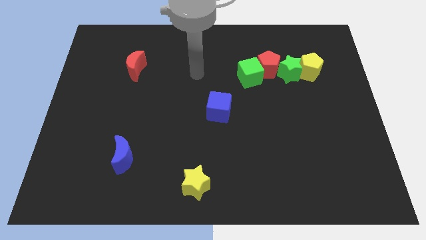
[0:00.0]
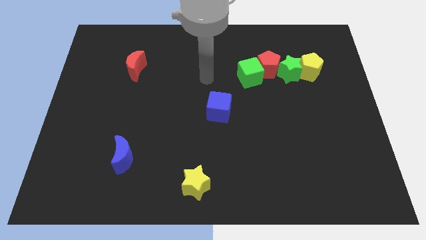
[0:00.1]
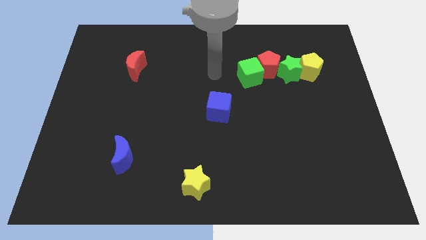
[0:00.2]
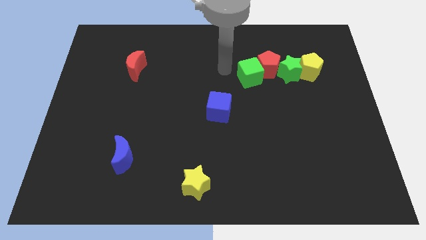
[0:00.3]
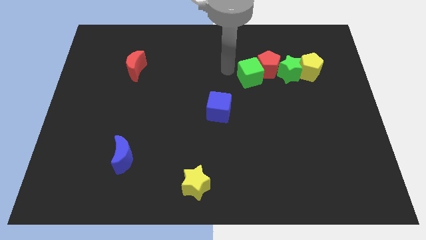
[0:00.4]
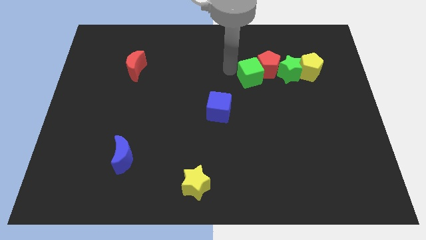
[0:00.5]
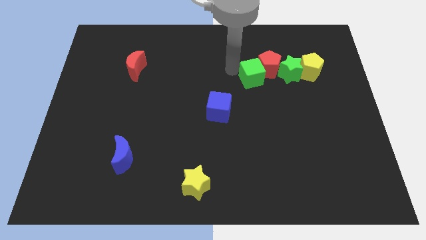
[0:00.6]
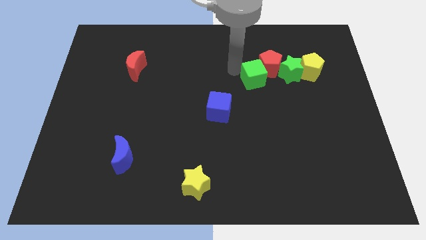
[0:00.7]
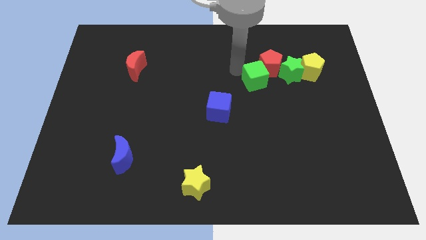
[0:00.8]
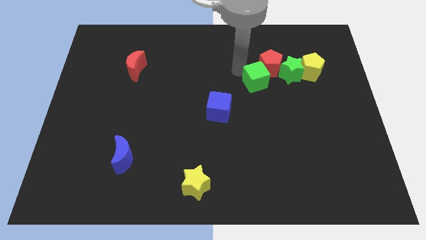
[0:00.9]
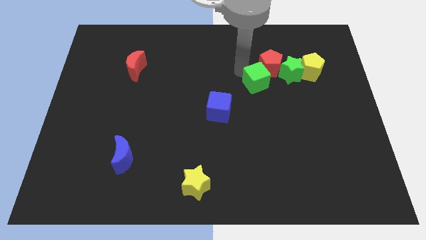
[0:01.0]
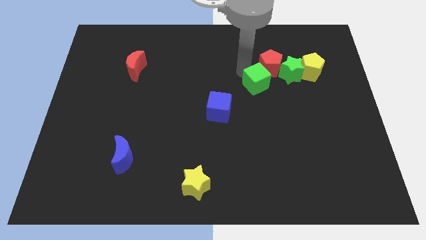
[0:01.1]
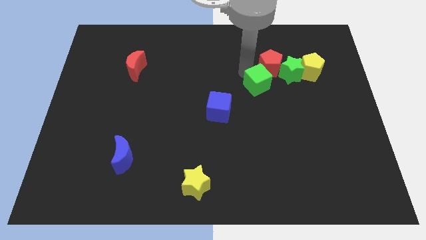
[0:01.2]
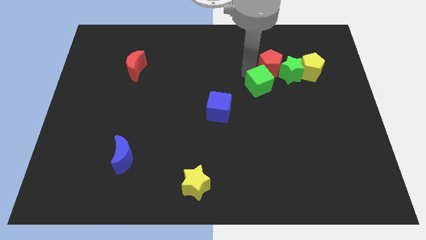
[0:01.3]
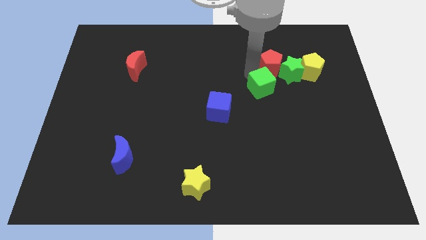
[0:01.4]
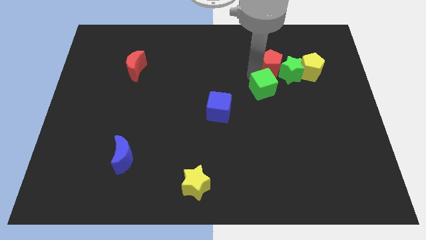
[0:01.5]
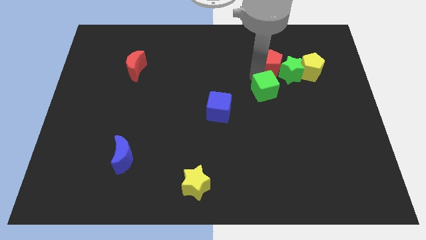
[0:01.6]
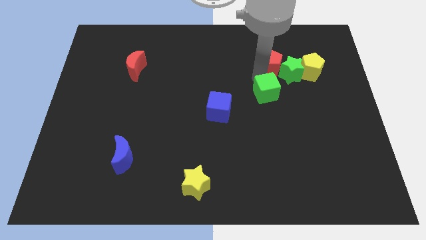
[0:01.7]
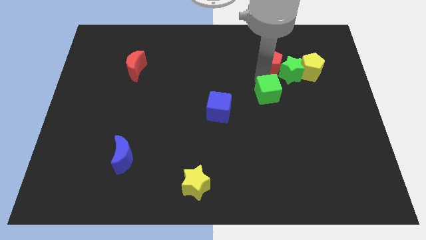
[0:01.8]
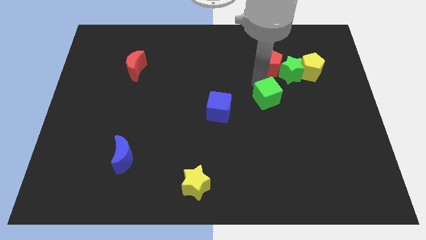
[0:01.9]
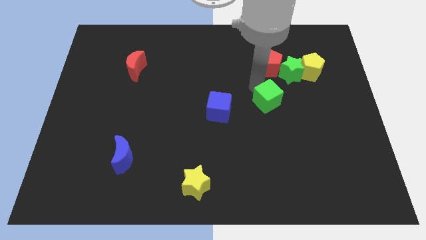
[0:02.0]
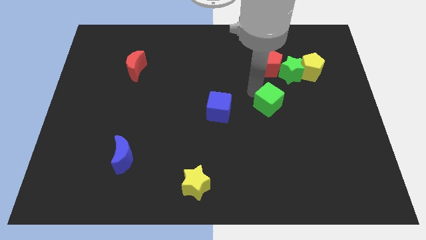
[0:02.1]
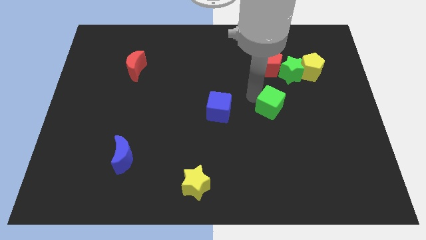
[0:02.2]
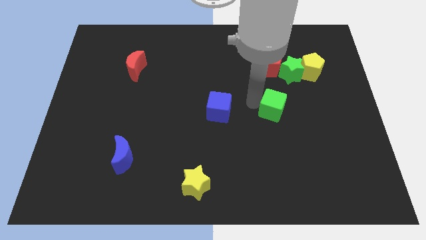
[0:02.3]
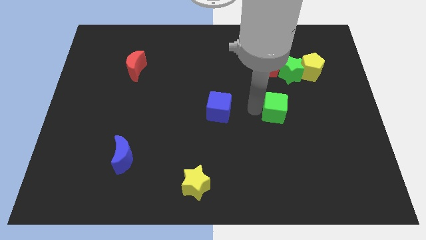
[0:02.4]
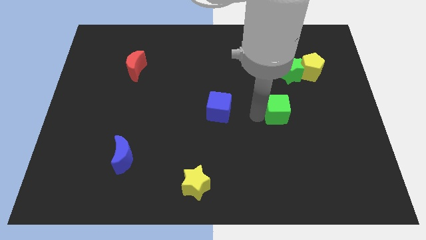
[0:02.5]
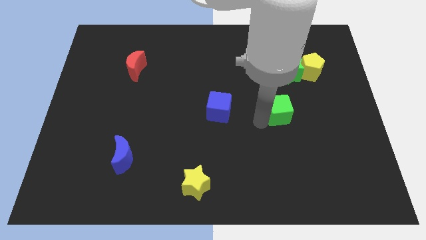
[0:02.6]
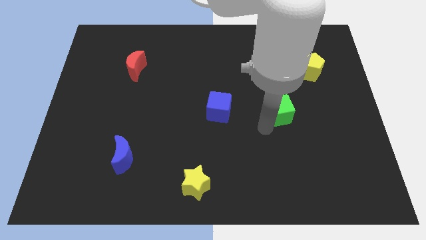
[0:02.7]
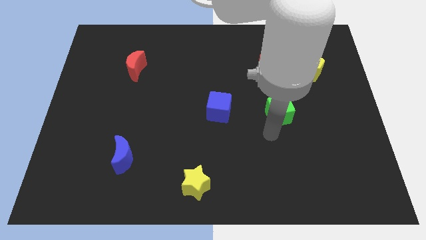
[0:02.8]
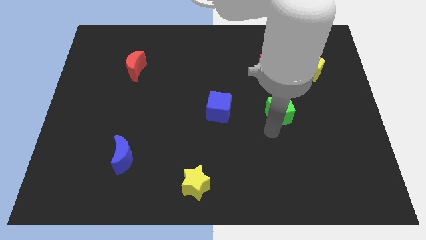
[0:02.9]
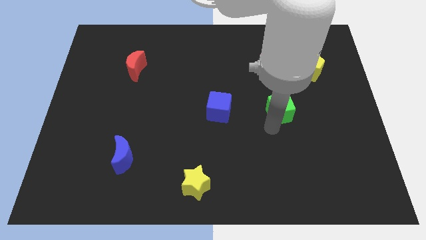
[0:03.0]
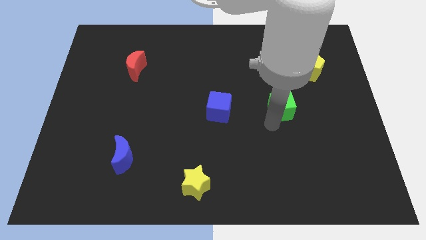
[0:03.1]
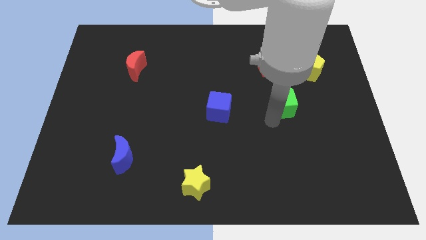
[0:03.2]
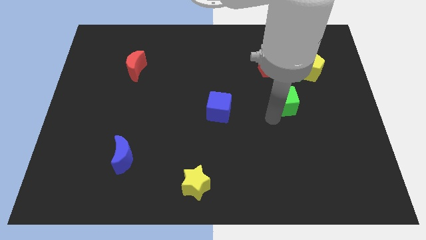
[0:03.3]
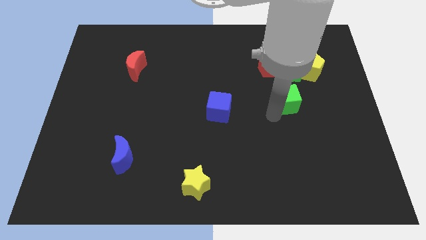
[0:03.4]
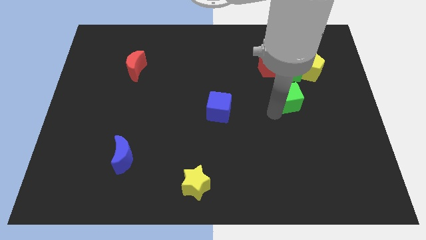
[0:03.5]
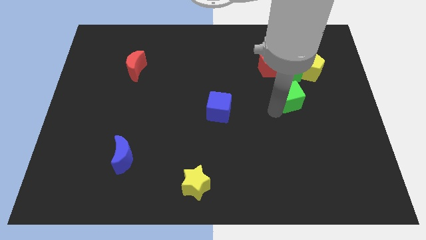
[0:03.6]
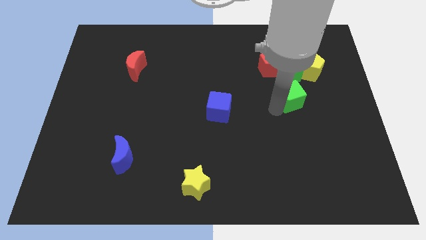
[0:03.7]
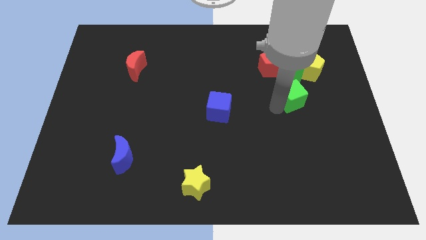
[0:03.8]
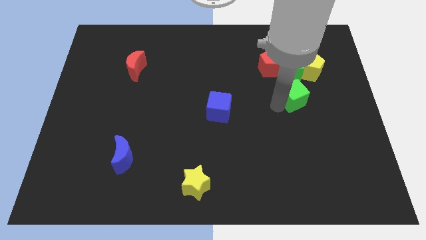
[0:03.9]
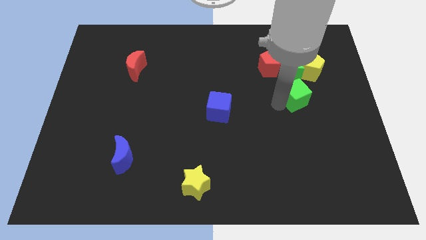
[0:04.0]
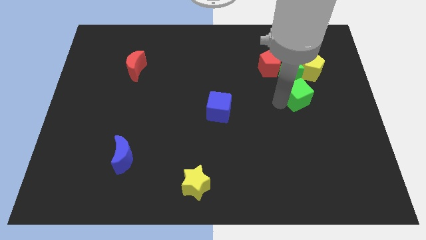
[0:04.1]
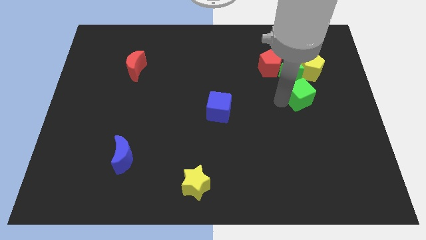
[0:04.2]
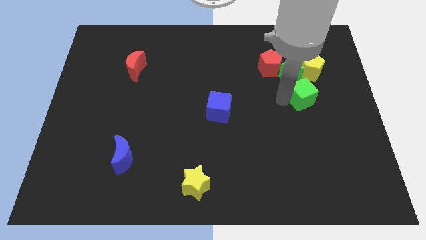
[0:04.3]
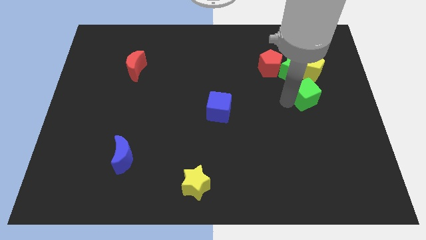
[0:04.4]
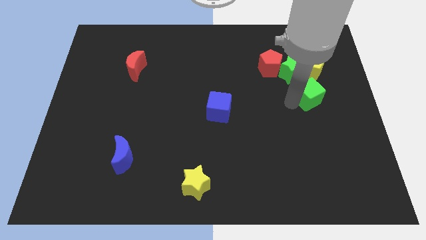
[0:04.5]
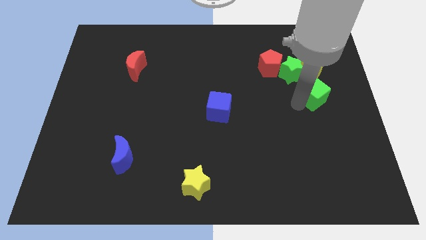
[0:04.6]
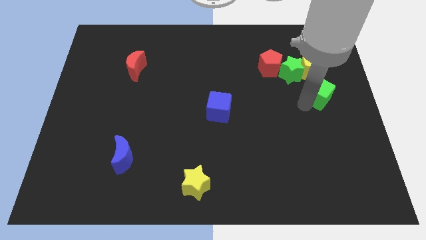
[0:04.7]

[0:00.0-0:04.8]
move the green cube to the right side of the board

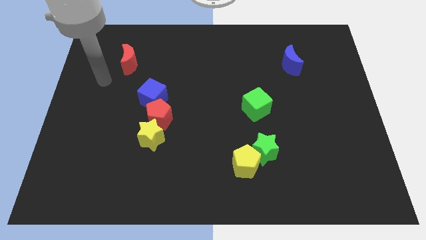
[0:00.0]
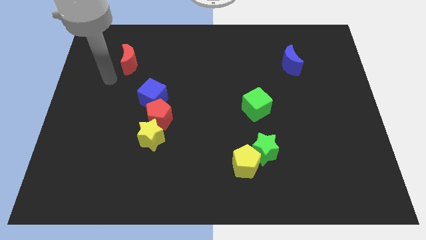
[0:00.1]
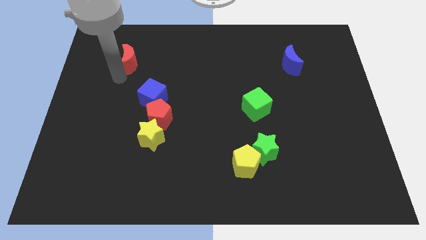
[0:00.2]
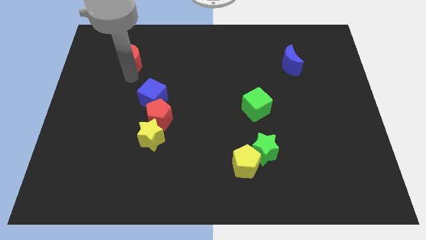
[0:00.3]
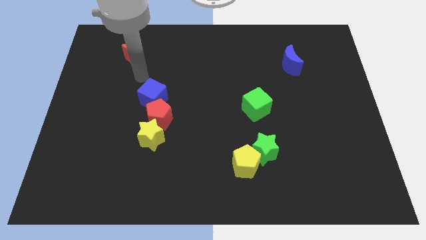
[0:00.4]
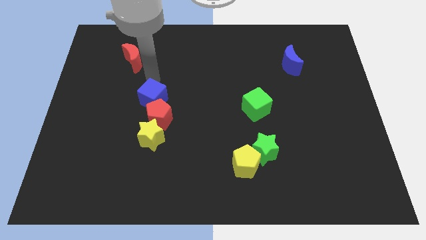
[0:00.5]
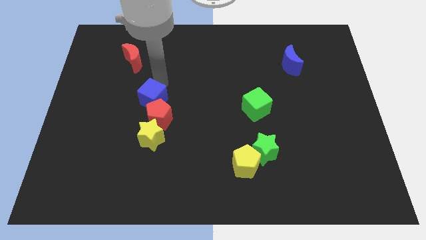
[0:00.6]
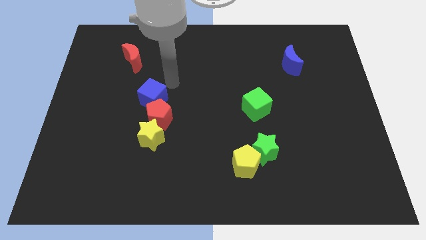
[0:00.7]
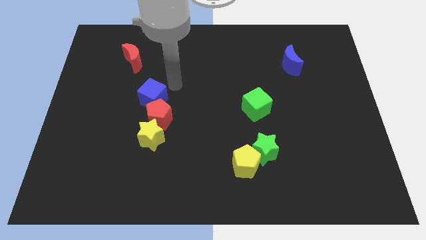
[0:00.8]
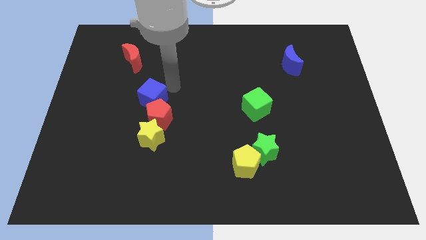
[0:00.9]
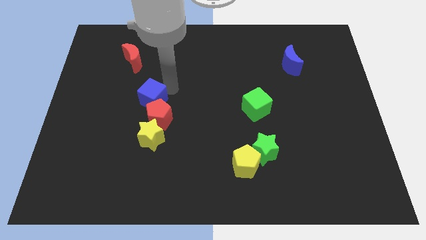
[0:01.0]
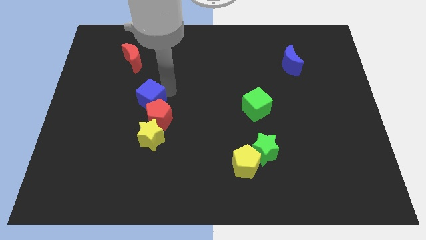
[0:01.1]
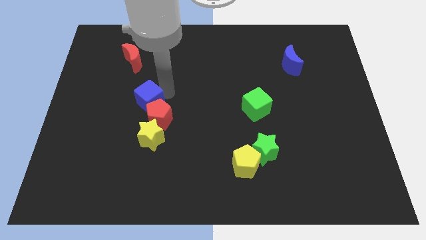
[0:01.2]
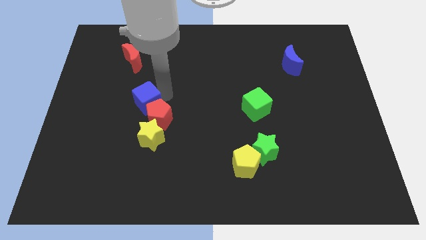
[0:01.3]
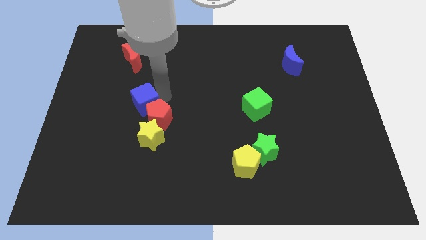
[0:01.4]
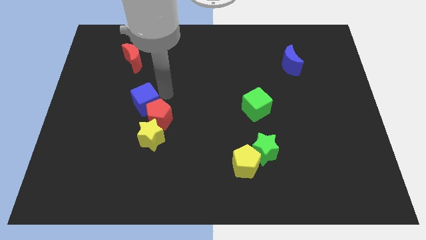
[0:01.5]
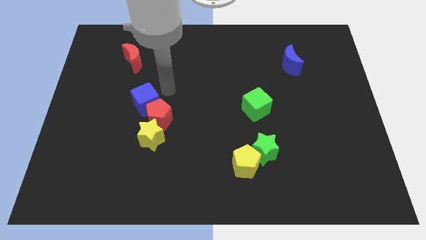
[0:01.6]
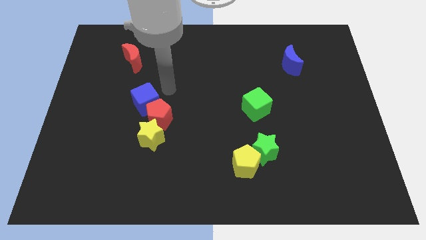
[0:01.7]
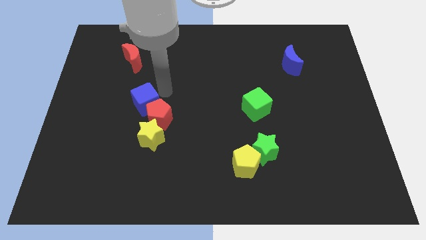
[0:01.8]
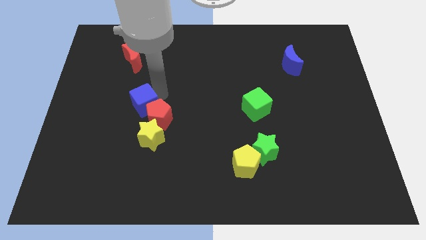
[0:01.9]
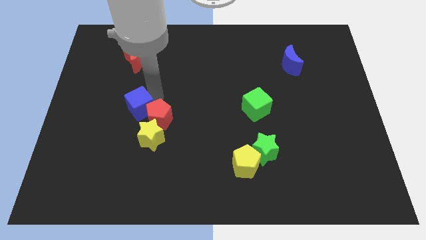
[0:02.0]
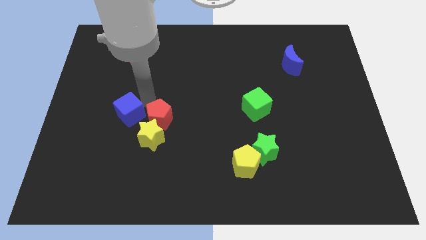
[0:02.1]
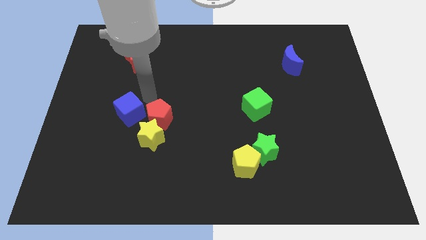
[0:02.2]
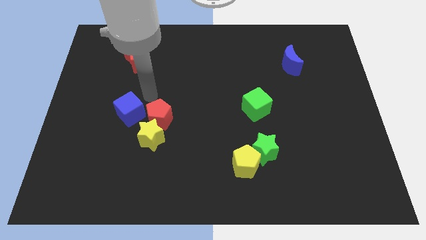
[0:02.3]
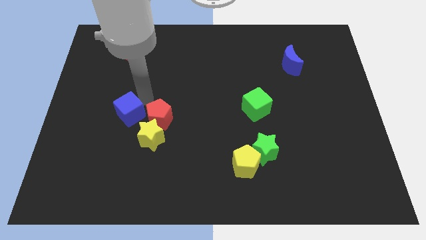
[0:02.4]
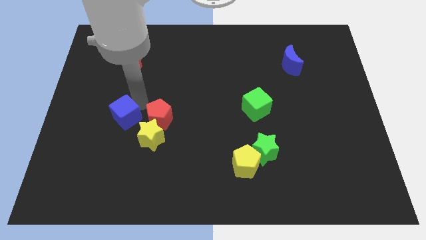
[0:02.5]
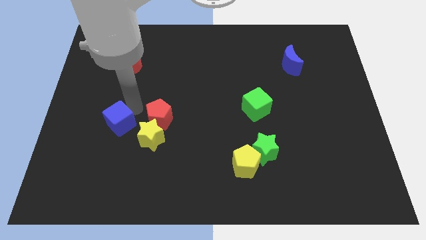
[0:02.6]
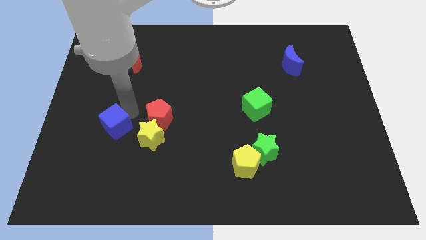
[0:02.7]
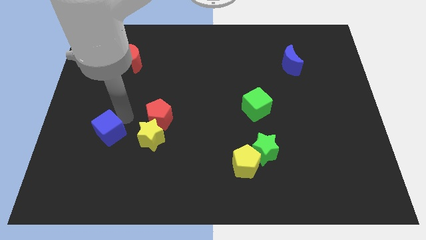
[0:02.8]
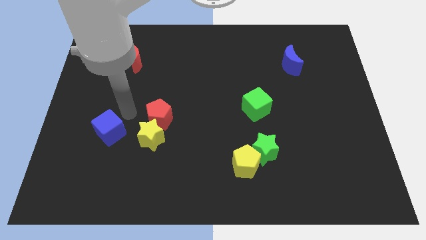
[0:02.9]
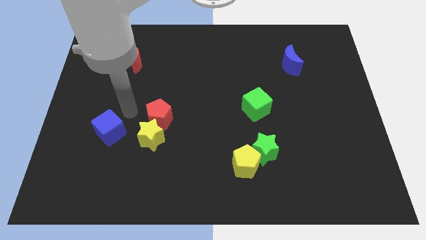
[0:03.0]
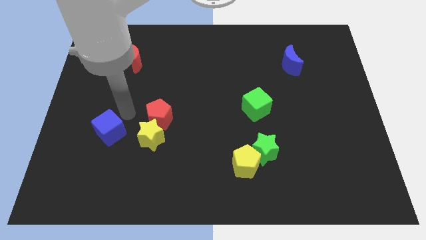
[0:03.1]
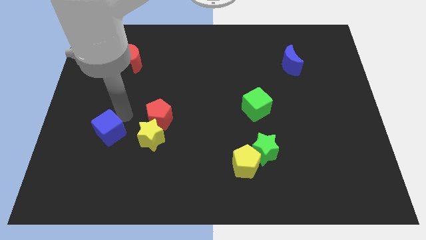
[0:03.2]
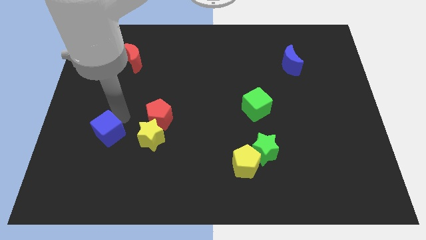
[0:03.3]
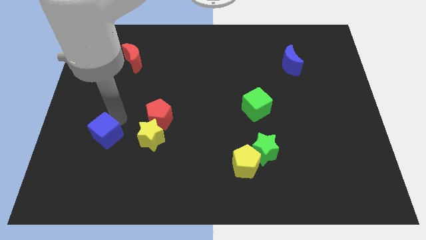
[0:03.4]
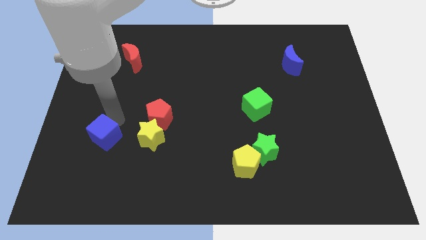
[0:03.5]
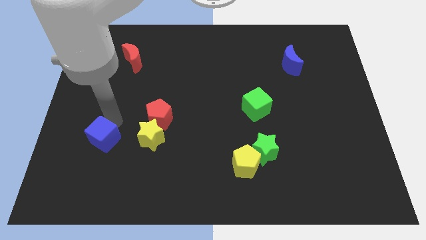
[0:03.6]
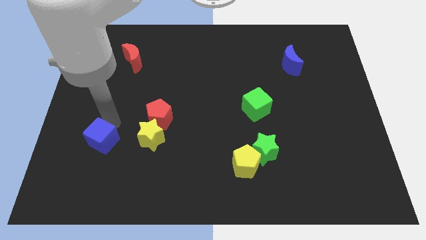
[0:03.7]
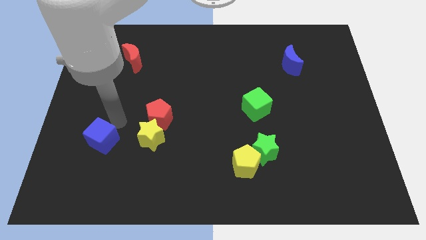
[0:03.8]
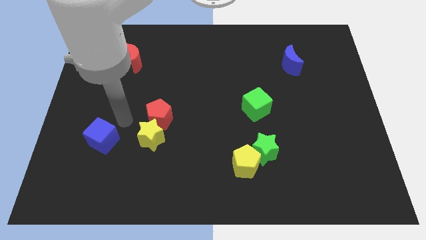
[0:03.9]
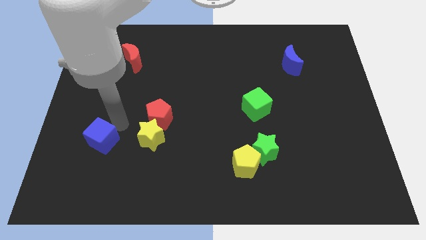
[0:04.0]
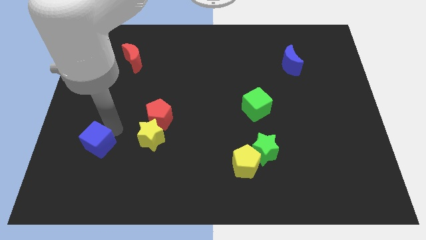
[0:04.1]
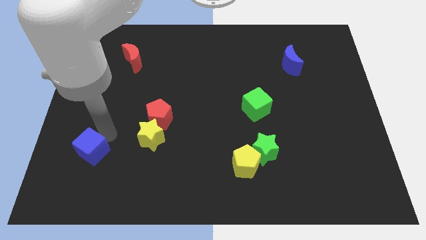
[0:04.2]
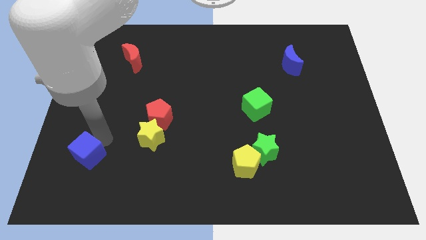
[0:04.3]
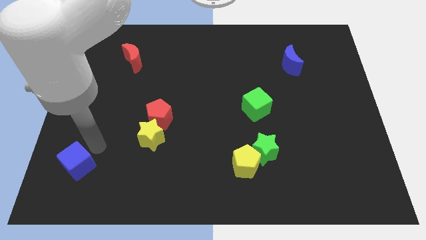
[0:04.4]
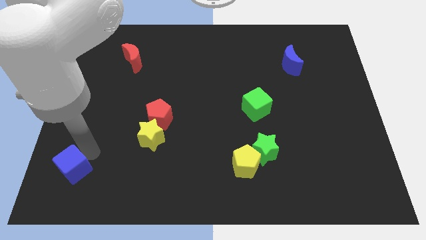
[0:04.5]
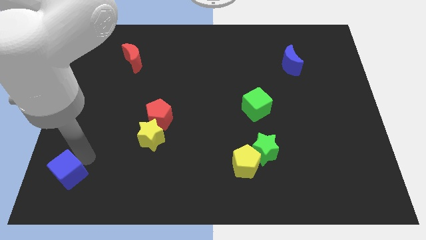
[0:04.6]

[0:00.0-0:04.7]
put the blue cube to the bottom left of the board
